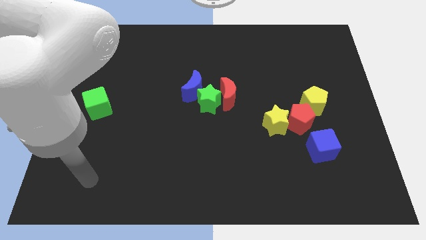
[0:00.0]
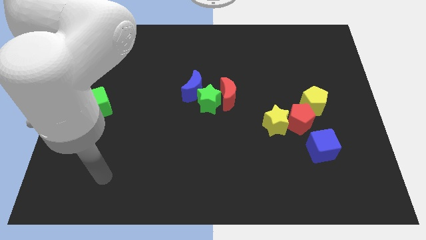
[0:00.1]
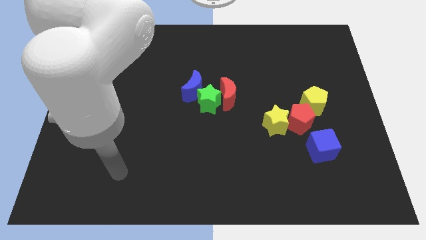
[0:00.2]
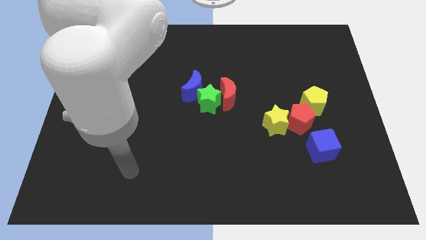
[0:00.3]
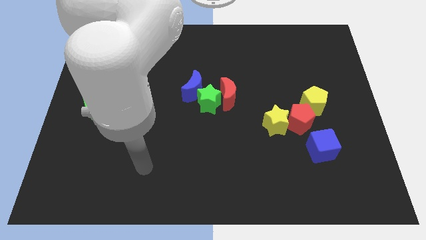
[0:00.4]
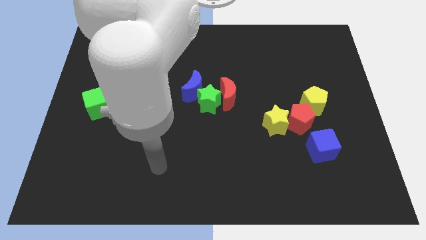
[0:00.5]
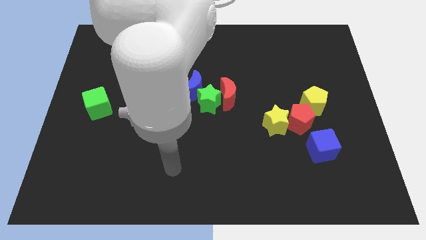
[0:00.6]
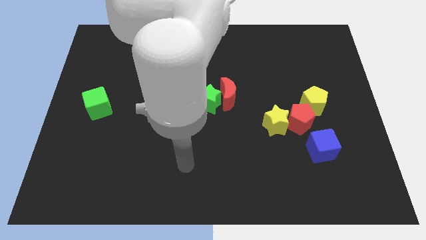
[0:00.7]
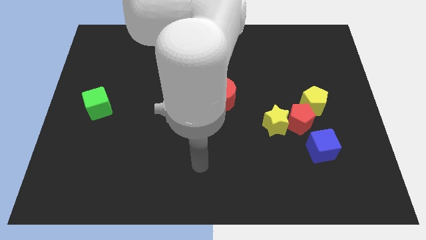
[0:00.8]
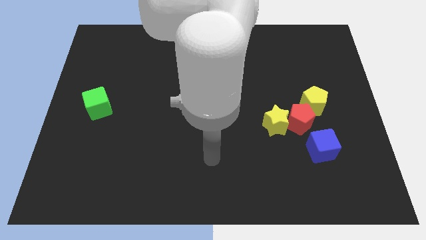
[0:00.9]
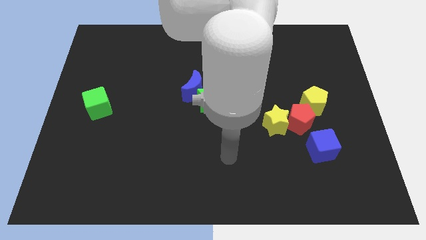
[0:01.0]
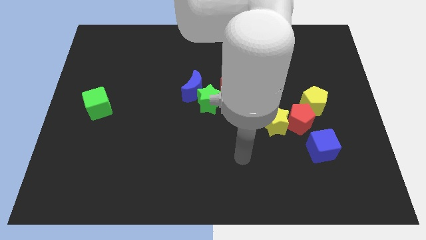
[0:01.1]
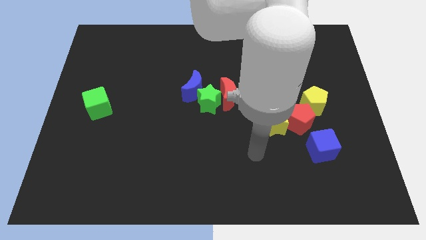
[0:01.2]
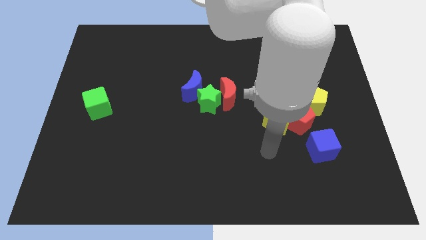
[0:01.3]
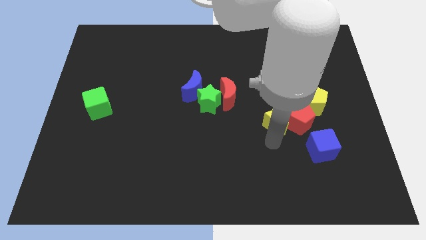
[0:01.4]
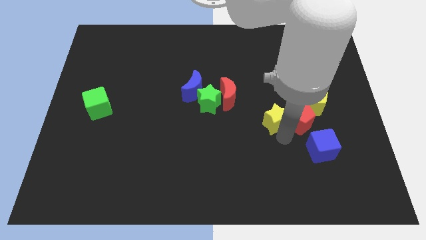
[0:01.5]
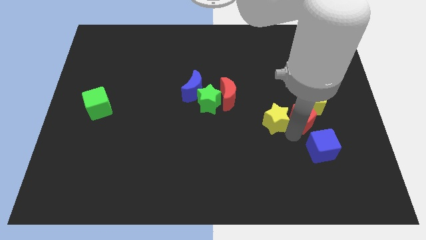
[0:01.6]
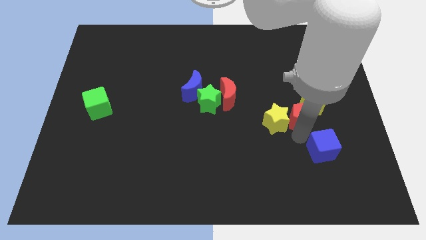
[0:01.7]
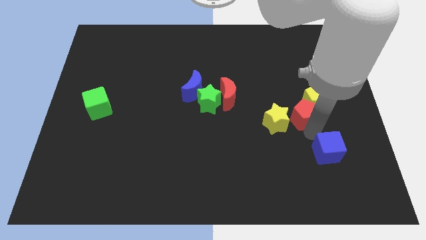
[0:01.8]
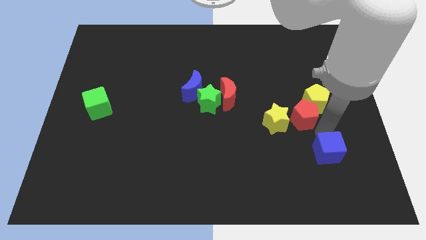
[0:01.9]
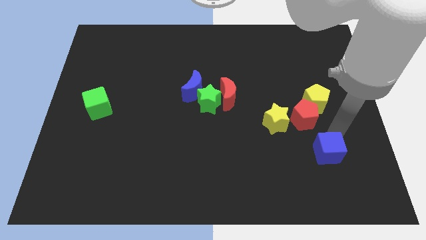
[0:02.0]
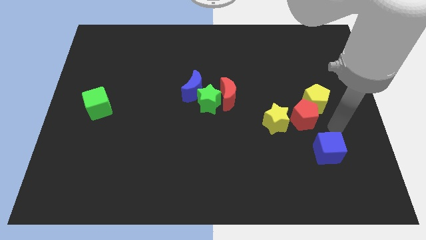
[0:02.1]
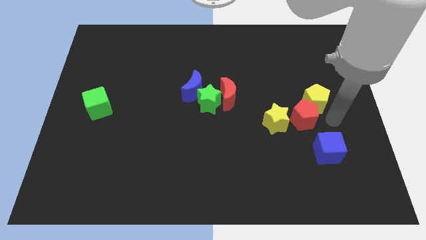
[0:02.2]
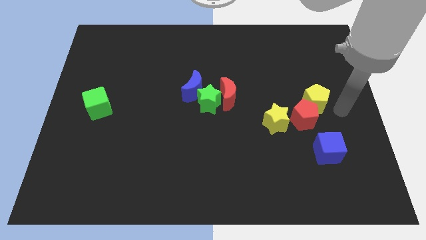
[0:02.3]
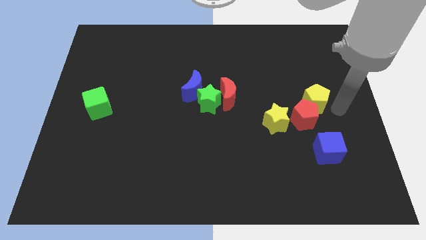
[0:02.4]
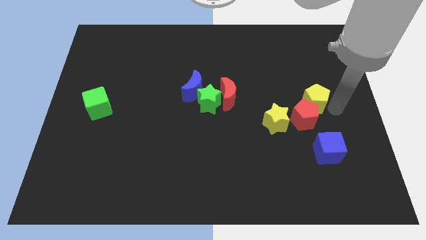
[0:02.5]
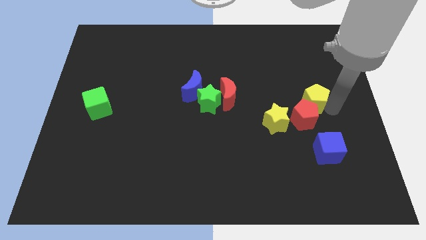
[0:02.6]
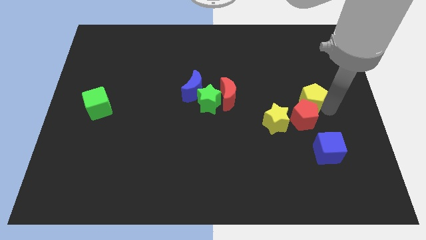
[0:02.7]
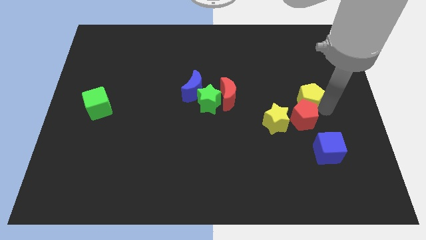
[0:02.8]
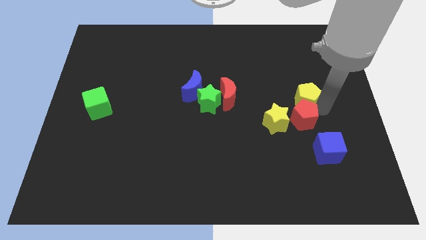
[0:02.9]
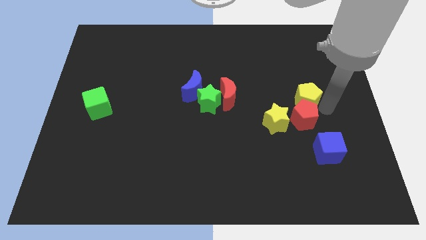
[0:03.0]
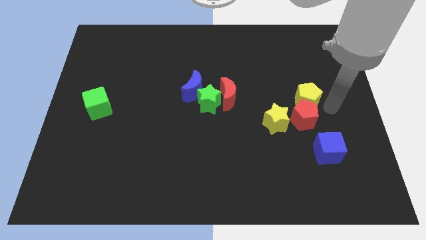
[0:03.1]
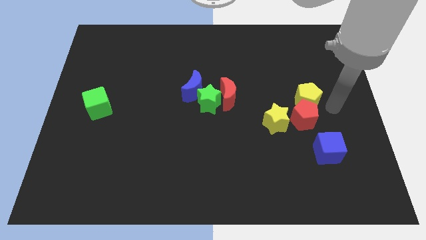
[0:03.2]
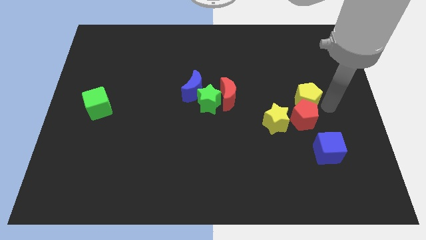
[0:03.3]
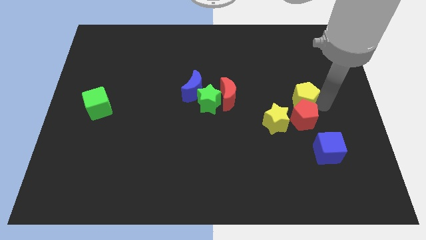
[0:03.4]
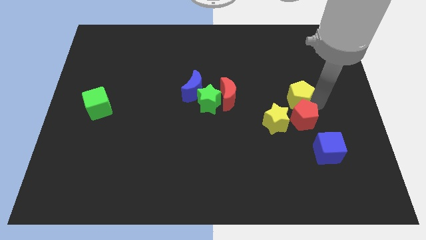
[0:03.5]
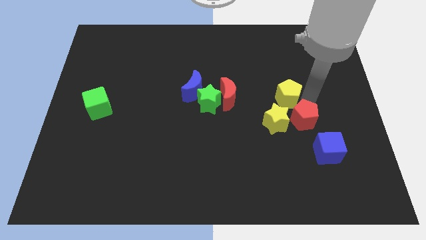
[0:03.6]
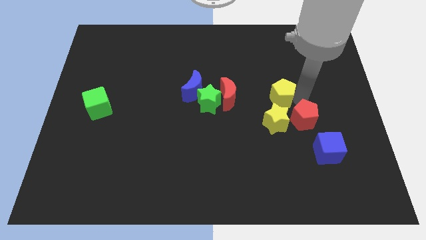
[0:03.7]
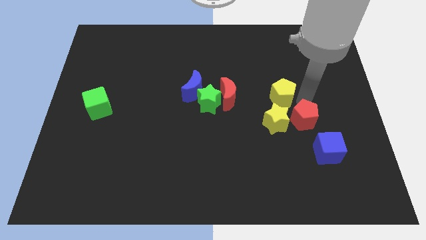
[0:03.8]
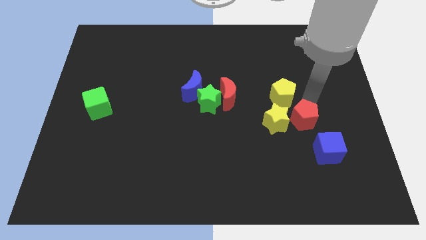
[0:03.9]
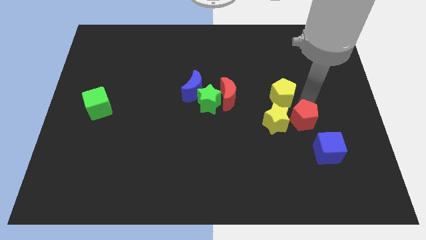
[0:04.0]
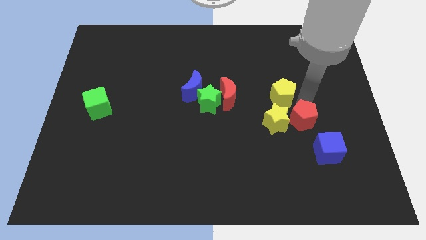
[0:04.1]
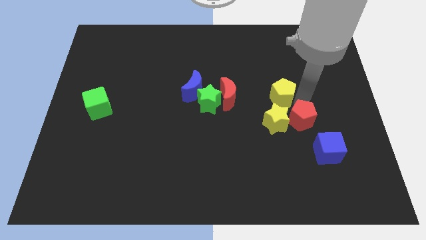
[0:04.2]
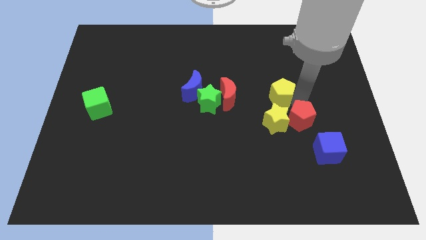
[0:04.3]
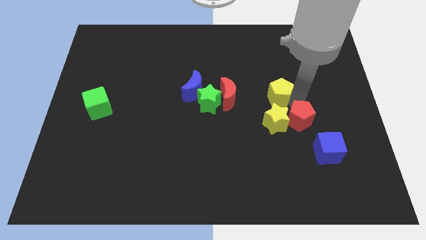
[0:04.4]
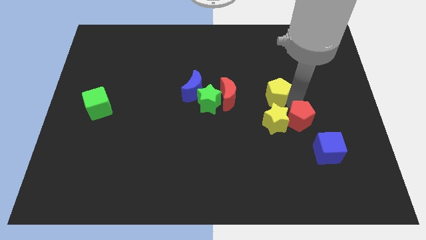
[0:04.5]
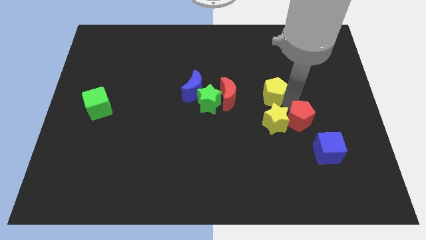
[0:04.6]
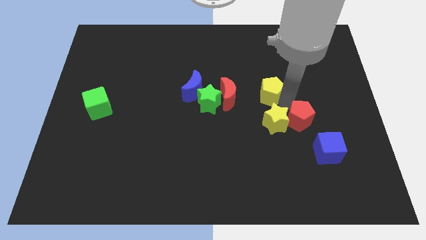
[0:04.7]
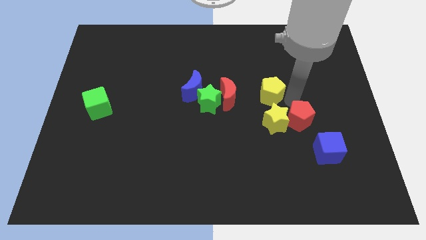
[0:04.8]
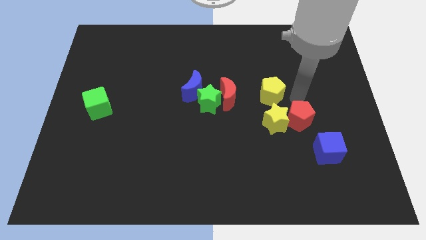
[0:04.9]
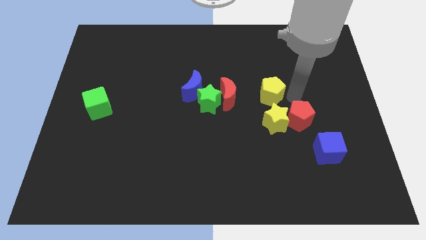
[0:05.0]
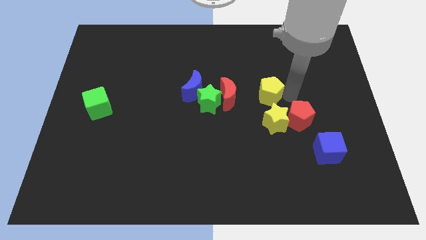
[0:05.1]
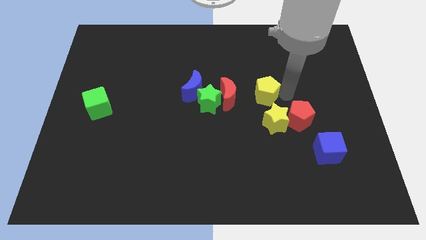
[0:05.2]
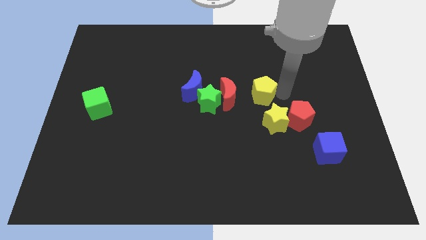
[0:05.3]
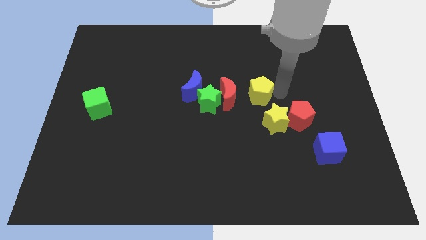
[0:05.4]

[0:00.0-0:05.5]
slide the yellow pentagon to the right side of the blue moon

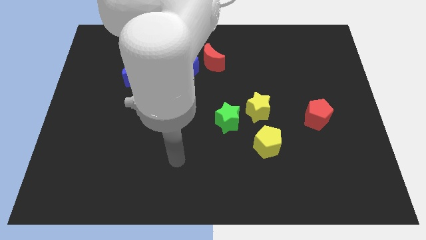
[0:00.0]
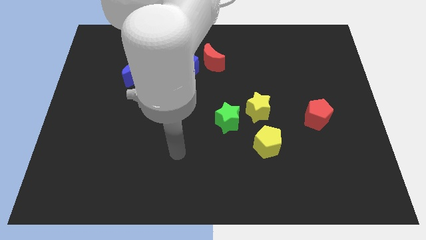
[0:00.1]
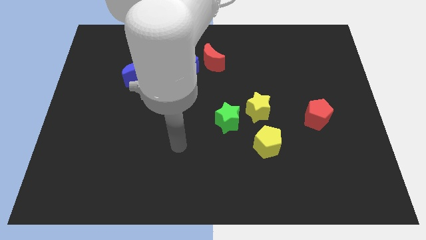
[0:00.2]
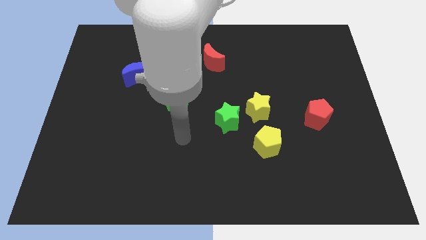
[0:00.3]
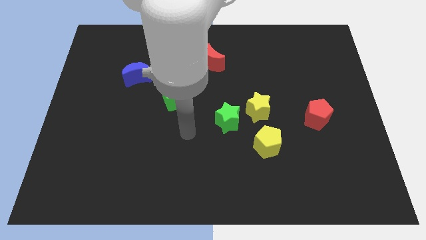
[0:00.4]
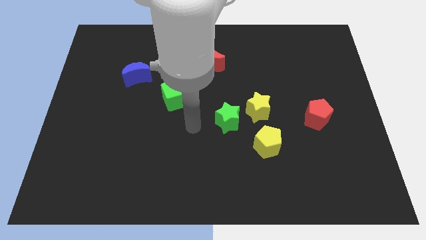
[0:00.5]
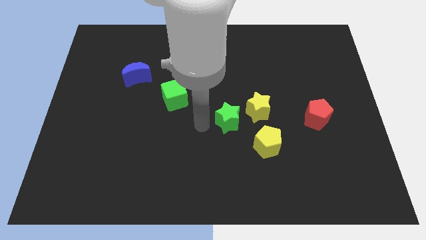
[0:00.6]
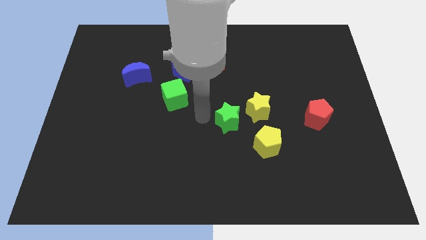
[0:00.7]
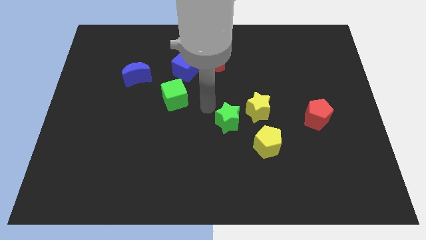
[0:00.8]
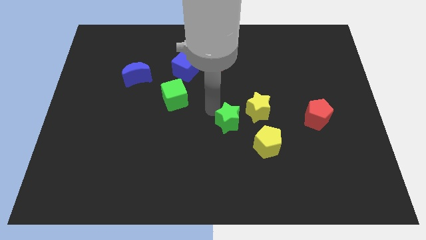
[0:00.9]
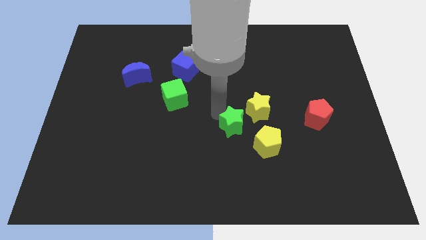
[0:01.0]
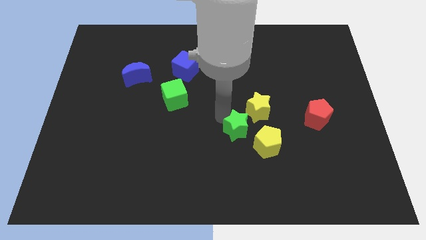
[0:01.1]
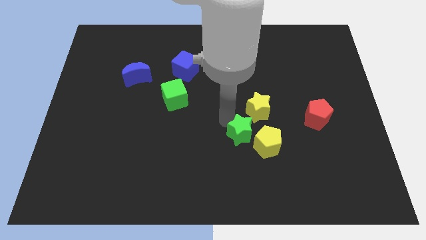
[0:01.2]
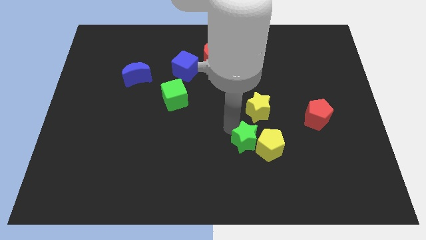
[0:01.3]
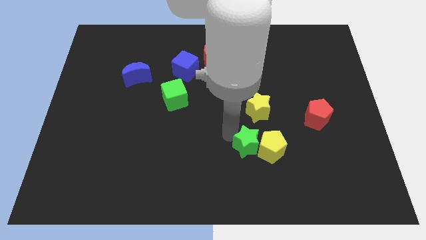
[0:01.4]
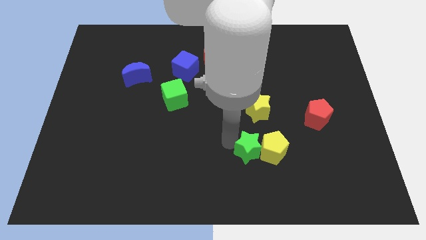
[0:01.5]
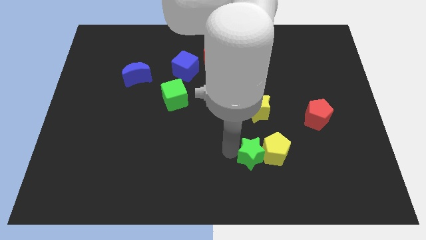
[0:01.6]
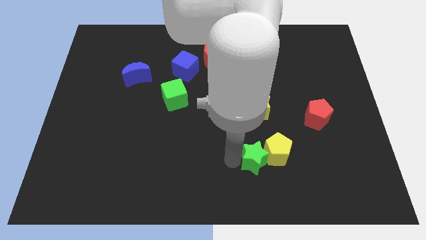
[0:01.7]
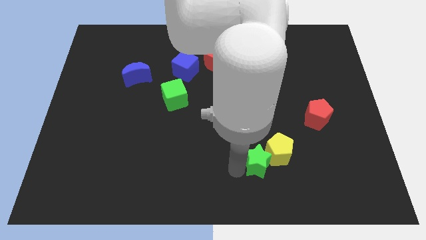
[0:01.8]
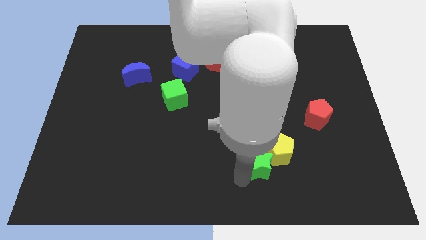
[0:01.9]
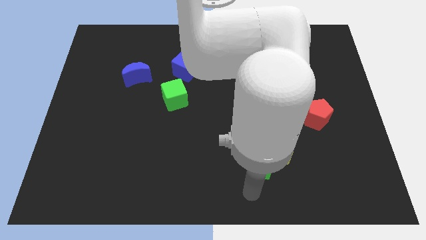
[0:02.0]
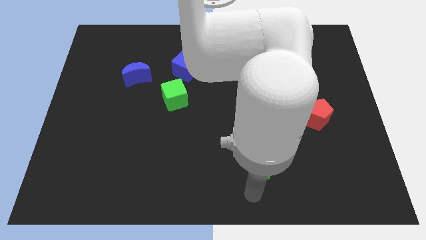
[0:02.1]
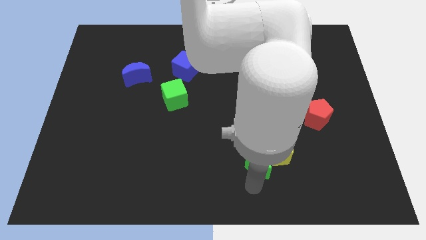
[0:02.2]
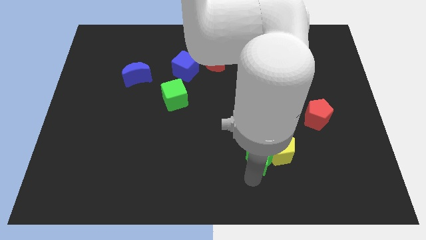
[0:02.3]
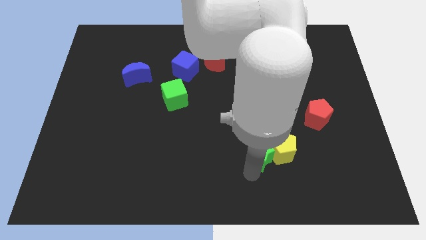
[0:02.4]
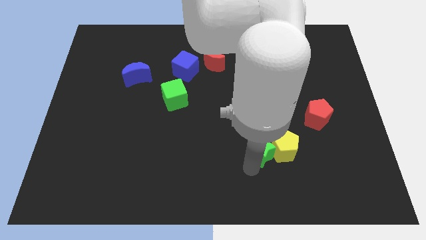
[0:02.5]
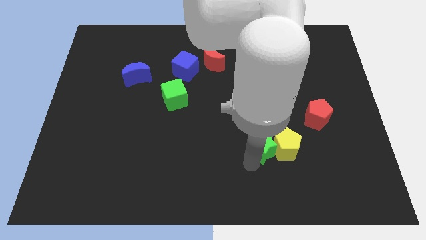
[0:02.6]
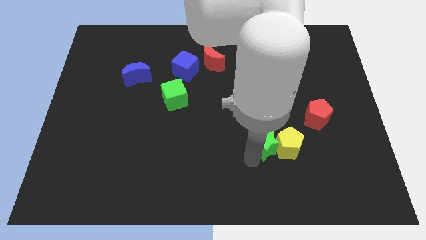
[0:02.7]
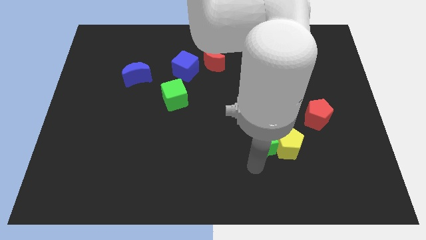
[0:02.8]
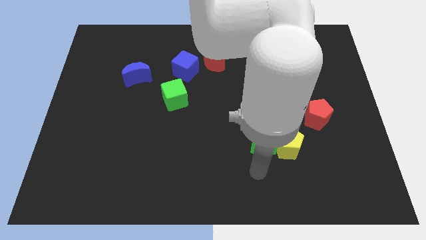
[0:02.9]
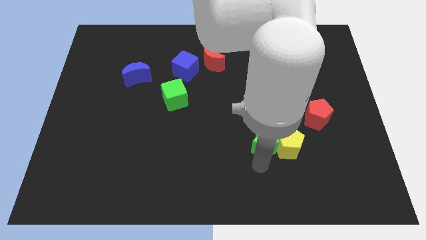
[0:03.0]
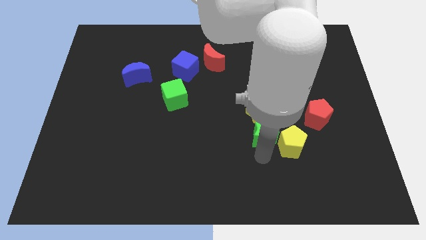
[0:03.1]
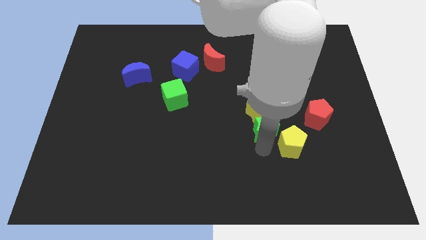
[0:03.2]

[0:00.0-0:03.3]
slide the green star left of the red pentagon
